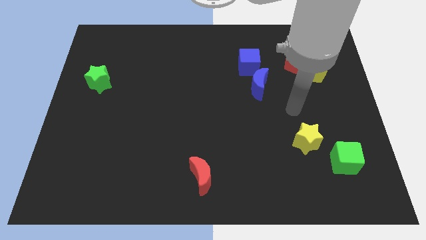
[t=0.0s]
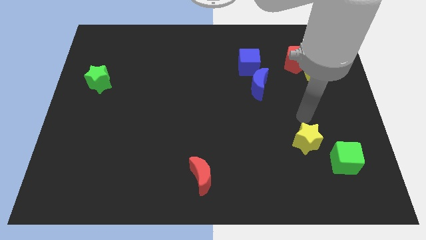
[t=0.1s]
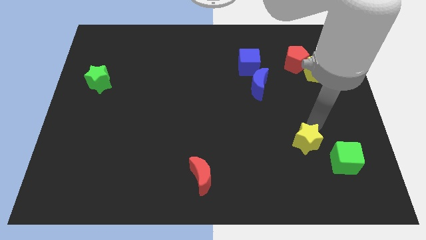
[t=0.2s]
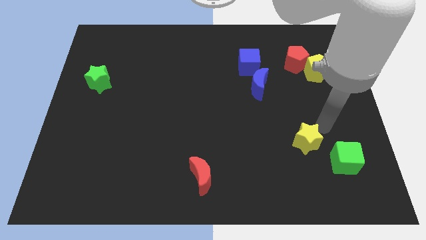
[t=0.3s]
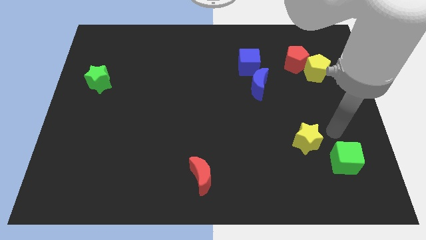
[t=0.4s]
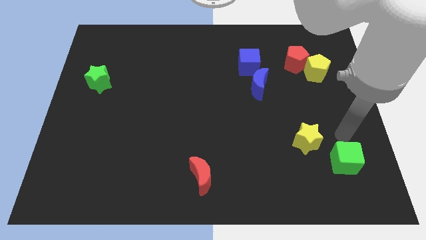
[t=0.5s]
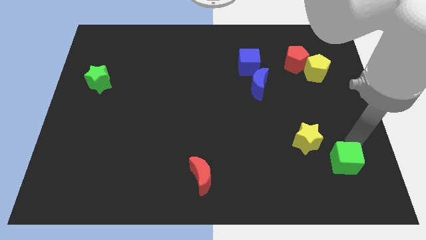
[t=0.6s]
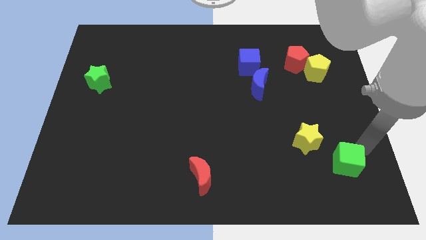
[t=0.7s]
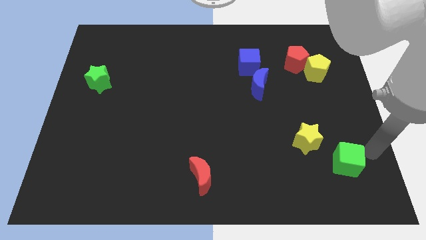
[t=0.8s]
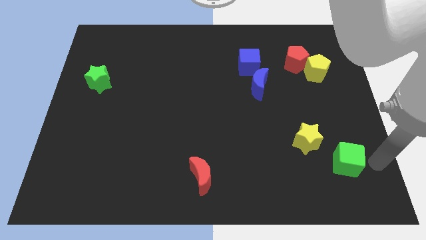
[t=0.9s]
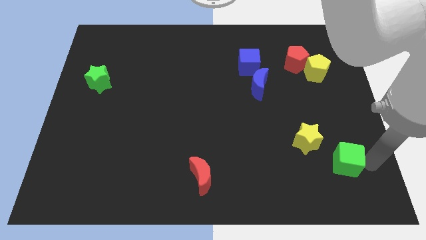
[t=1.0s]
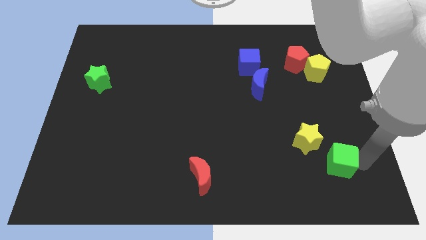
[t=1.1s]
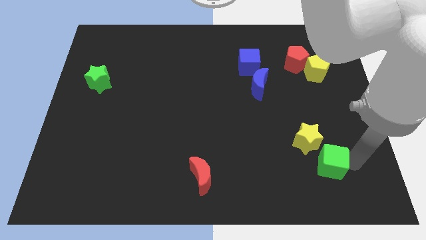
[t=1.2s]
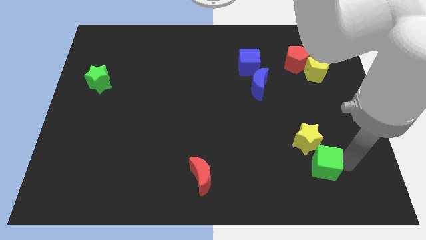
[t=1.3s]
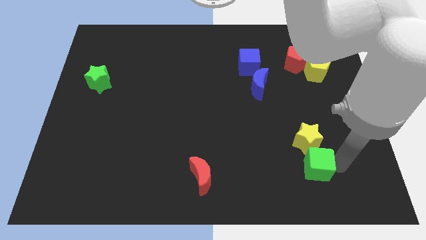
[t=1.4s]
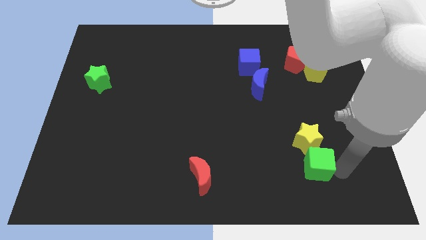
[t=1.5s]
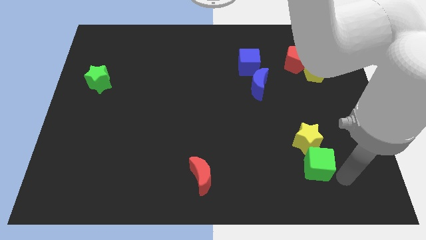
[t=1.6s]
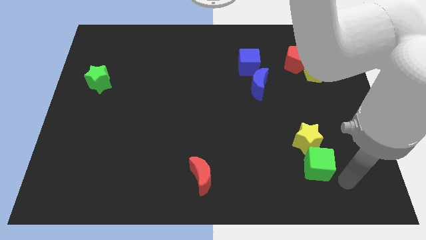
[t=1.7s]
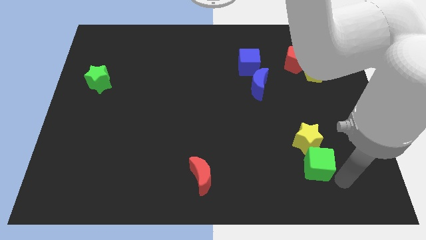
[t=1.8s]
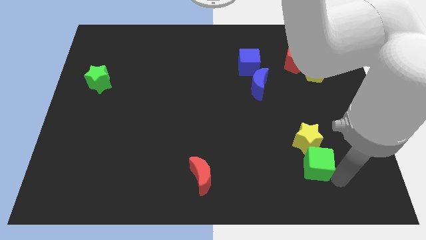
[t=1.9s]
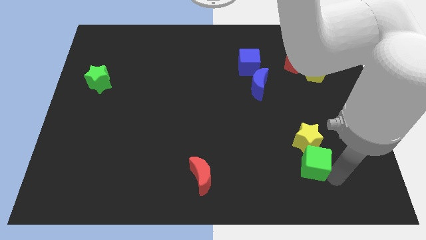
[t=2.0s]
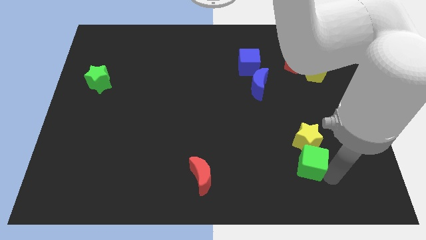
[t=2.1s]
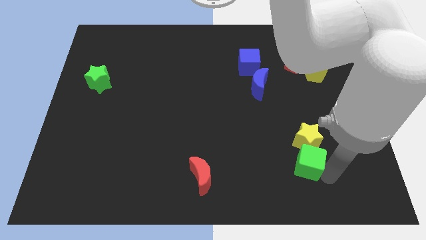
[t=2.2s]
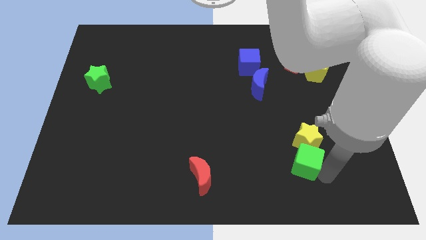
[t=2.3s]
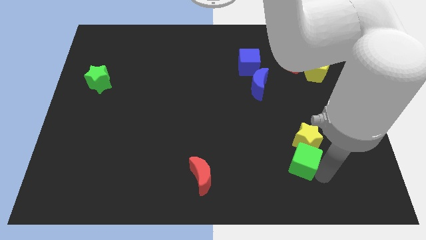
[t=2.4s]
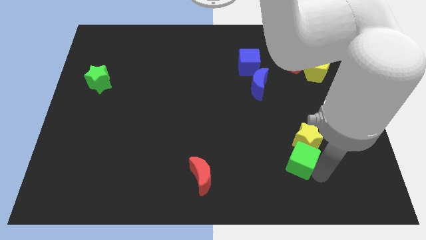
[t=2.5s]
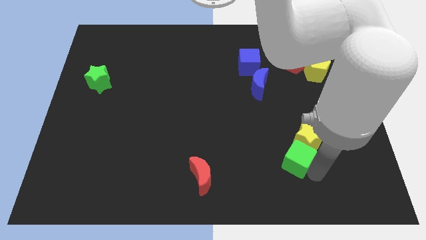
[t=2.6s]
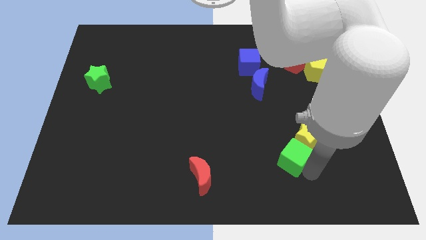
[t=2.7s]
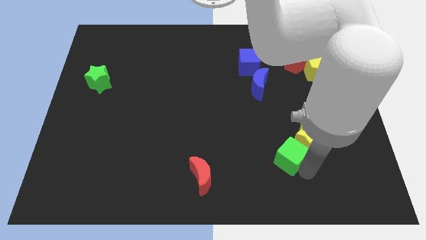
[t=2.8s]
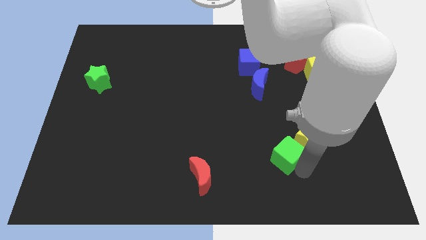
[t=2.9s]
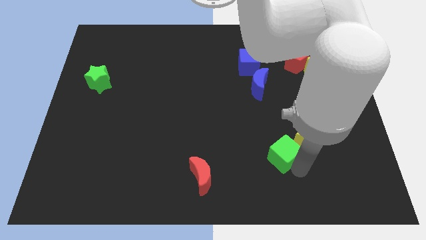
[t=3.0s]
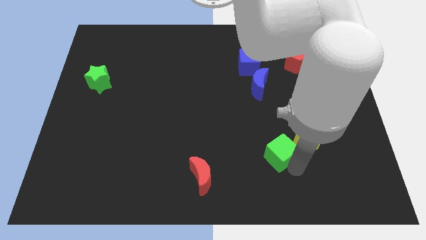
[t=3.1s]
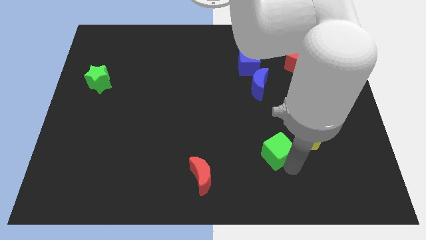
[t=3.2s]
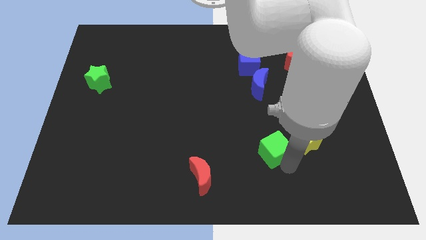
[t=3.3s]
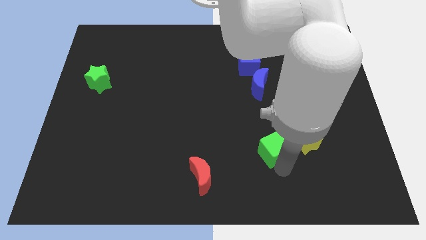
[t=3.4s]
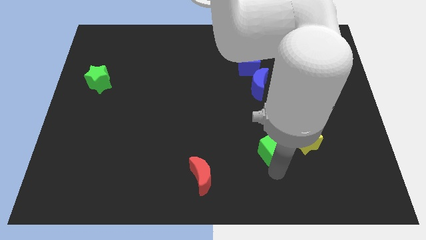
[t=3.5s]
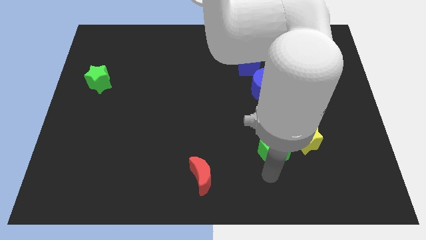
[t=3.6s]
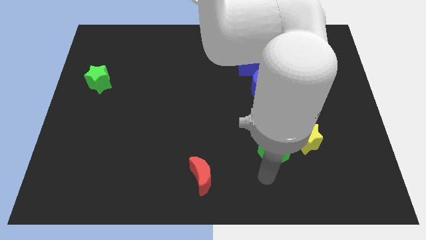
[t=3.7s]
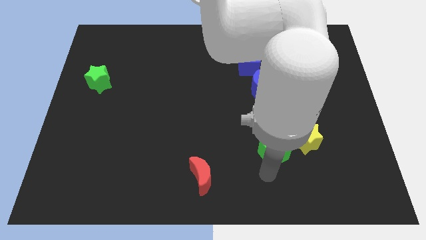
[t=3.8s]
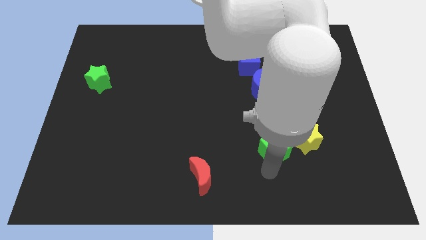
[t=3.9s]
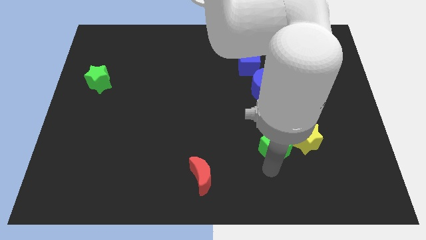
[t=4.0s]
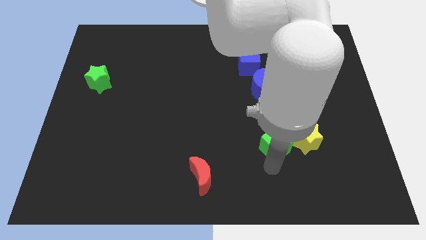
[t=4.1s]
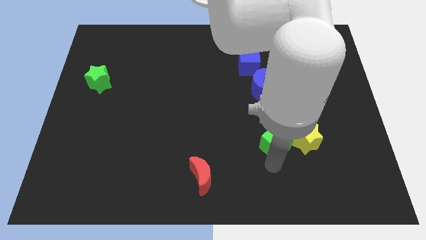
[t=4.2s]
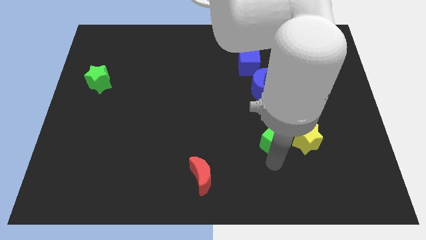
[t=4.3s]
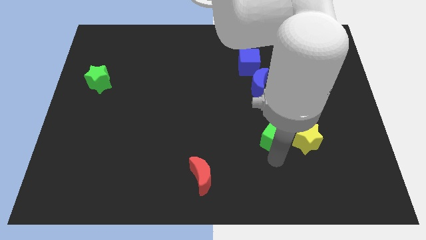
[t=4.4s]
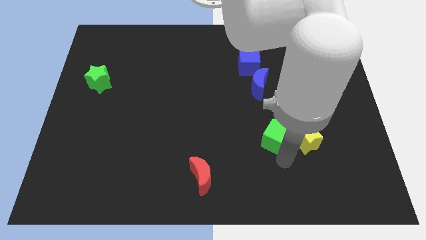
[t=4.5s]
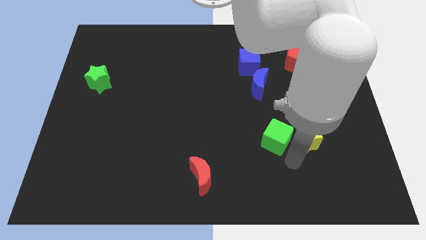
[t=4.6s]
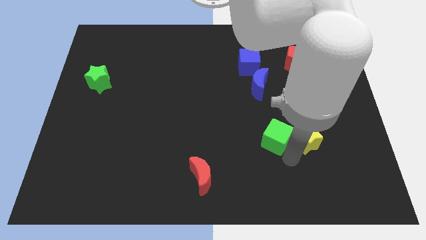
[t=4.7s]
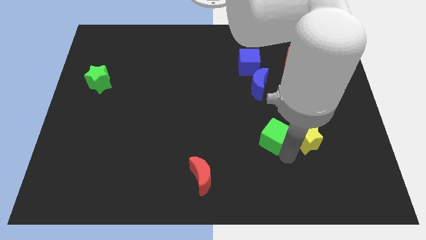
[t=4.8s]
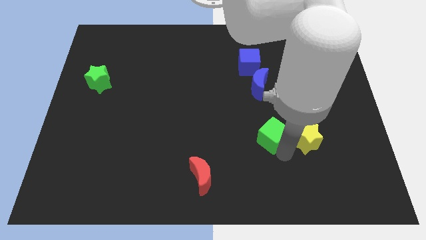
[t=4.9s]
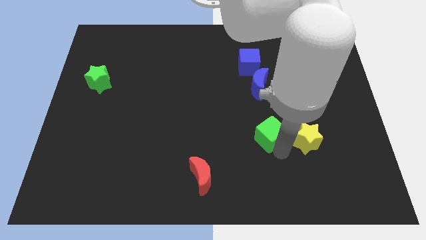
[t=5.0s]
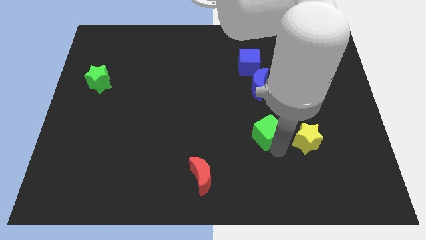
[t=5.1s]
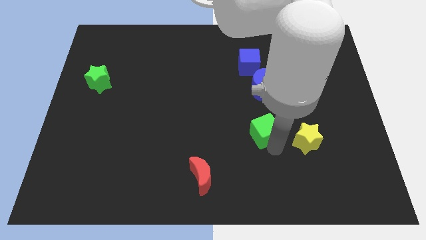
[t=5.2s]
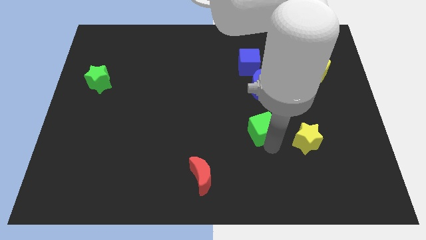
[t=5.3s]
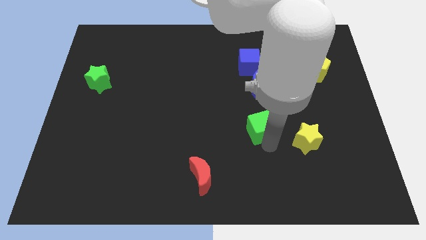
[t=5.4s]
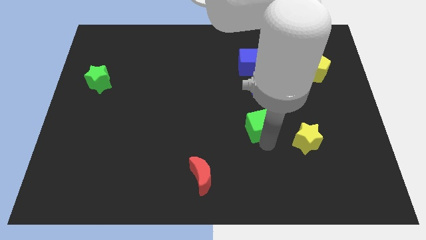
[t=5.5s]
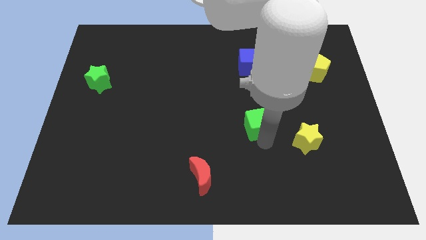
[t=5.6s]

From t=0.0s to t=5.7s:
move the green cube to the middle

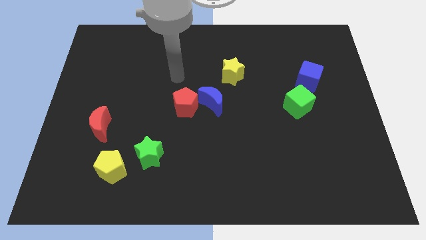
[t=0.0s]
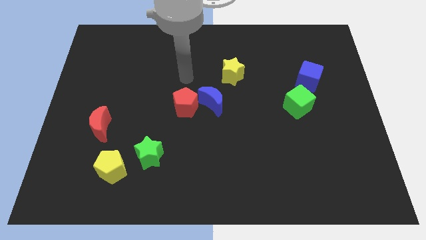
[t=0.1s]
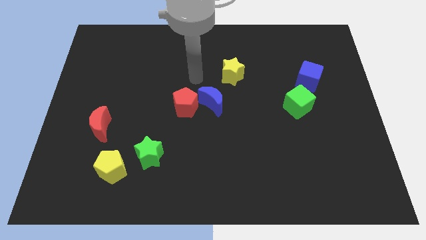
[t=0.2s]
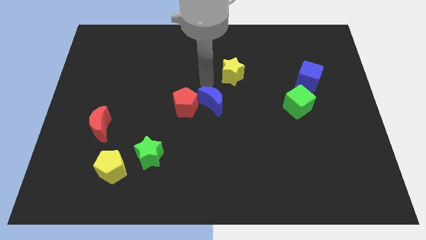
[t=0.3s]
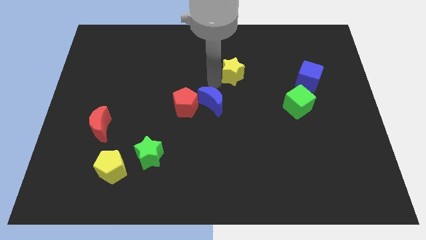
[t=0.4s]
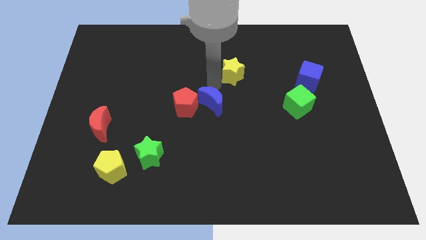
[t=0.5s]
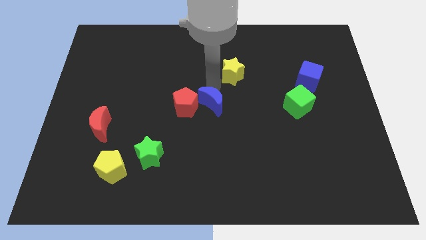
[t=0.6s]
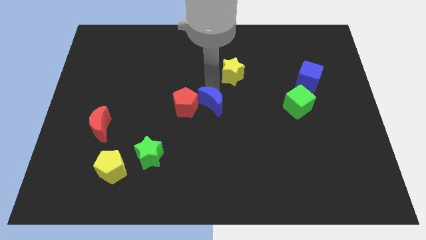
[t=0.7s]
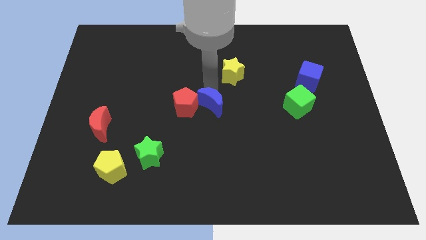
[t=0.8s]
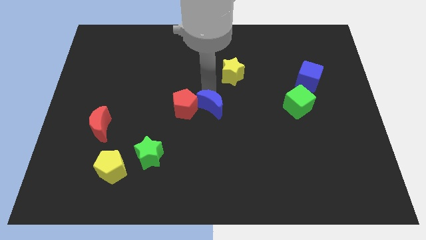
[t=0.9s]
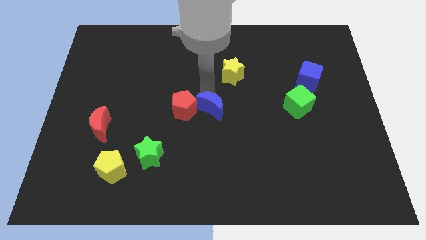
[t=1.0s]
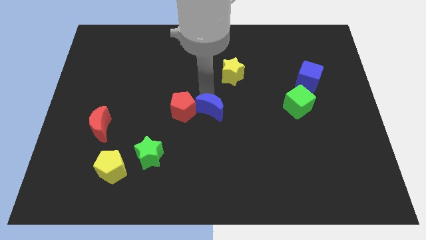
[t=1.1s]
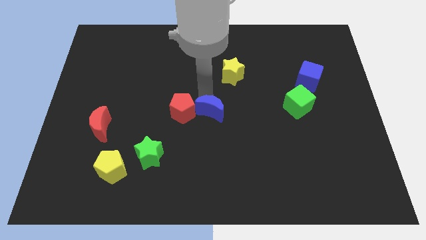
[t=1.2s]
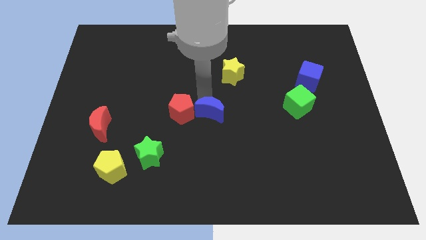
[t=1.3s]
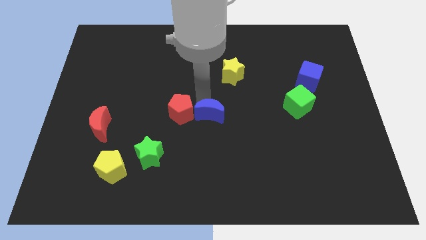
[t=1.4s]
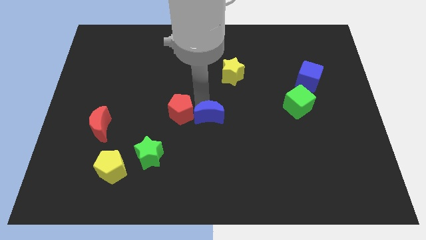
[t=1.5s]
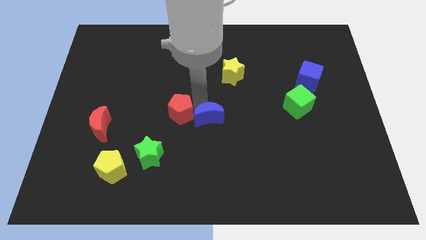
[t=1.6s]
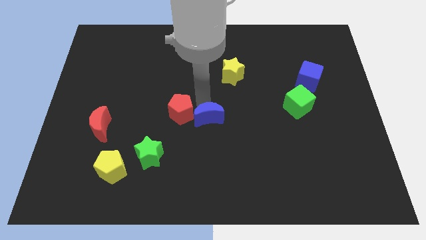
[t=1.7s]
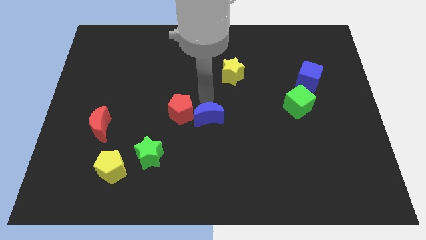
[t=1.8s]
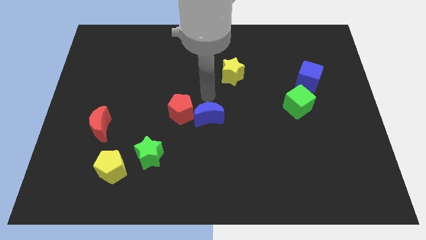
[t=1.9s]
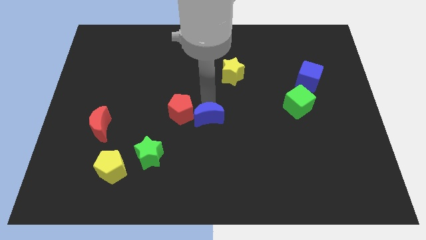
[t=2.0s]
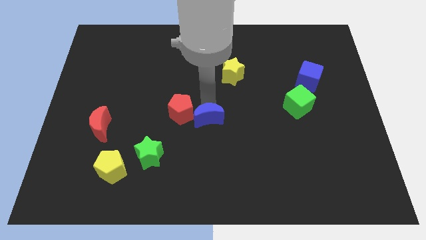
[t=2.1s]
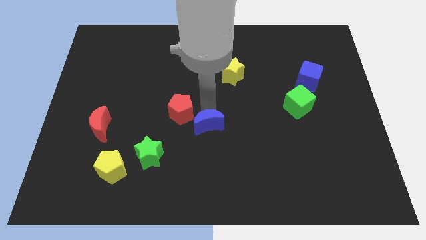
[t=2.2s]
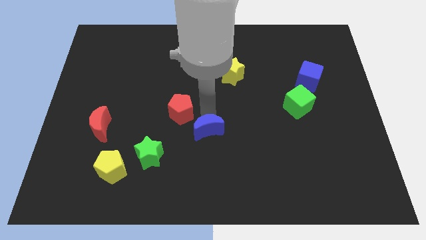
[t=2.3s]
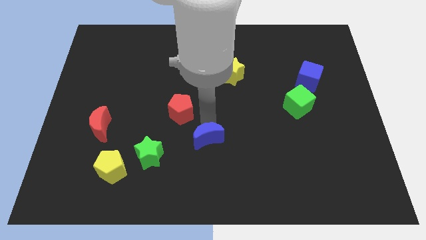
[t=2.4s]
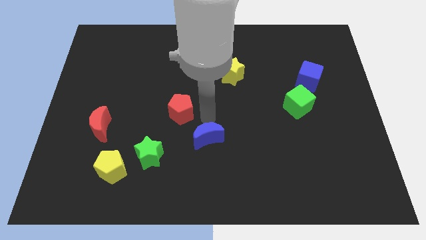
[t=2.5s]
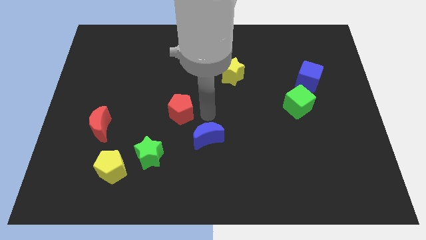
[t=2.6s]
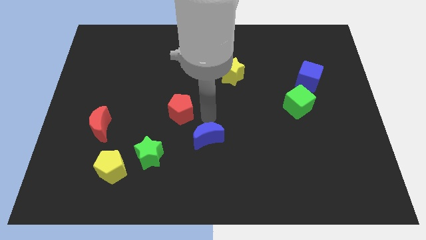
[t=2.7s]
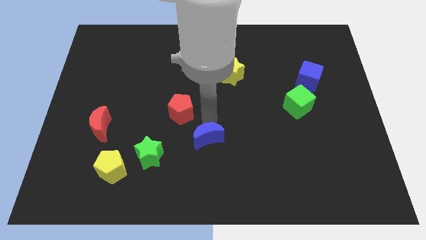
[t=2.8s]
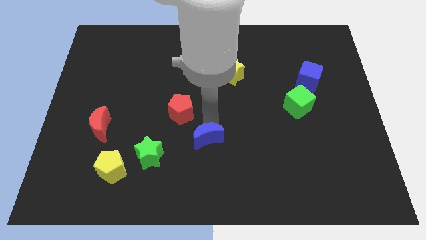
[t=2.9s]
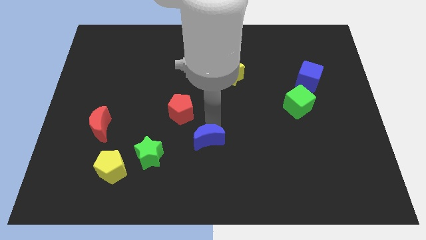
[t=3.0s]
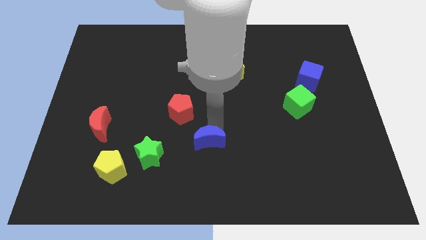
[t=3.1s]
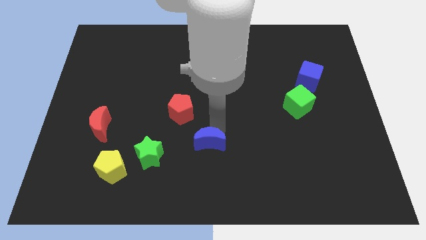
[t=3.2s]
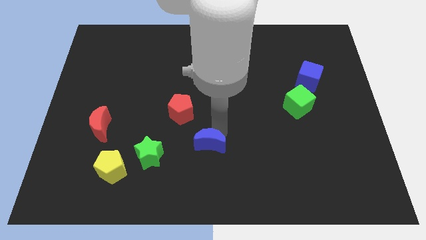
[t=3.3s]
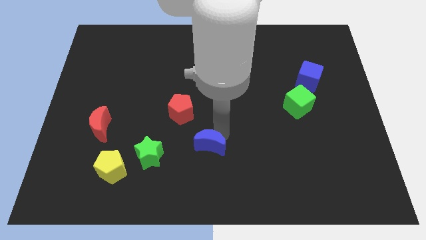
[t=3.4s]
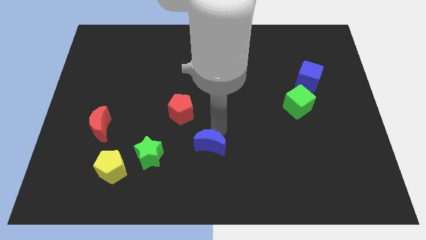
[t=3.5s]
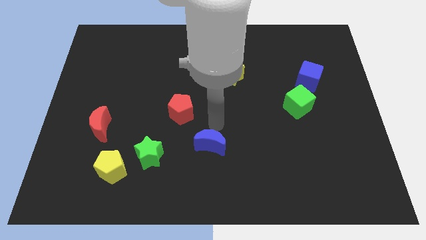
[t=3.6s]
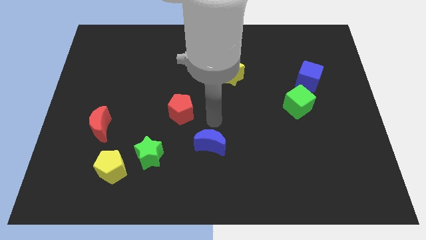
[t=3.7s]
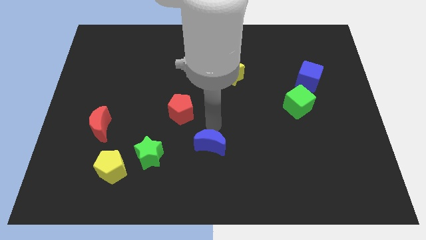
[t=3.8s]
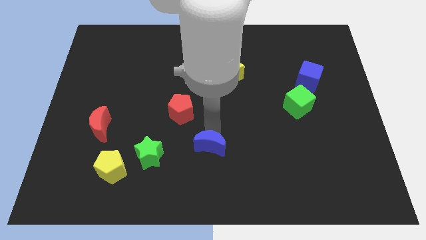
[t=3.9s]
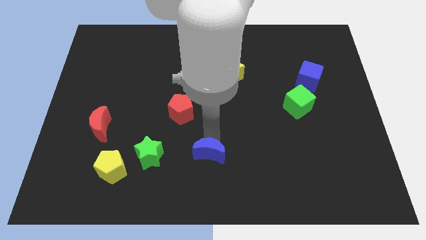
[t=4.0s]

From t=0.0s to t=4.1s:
push the blue moon to the bottom side
